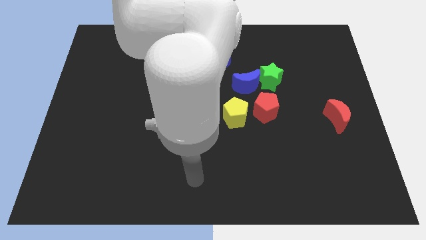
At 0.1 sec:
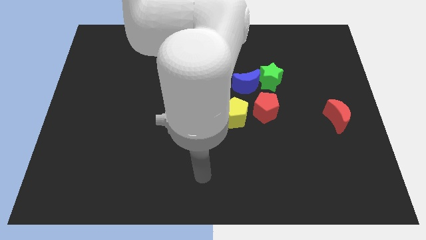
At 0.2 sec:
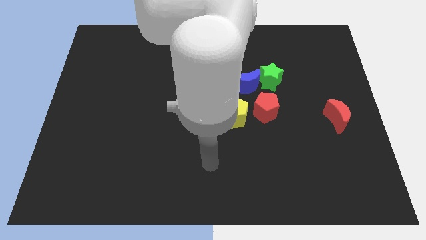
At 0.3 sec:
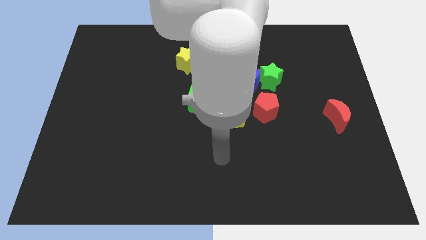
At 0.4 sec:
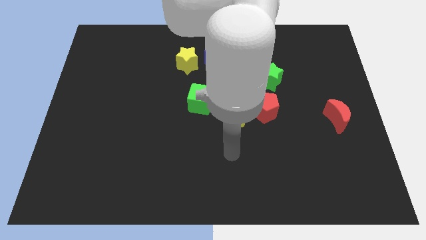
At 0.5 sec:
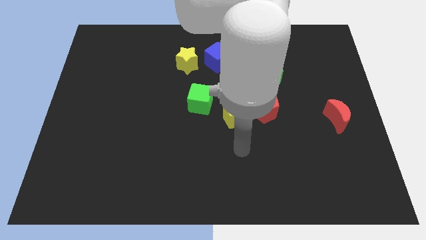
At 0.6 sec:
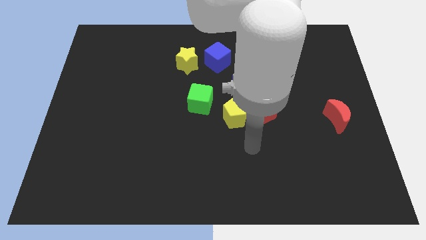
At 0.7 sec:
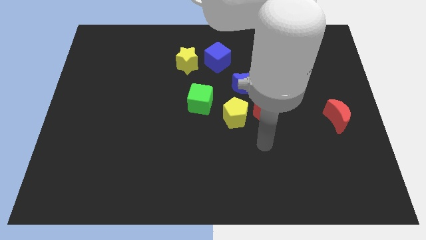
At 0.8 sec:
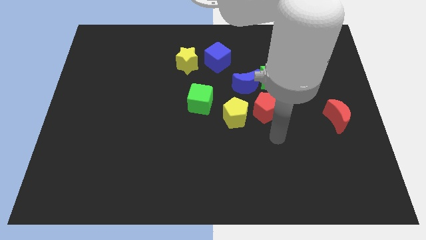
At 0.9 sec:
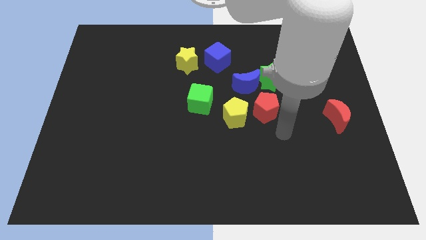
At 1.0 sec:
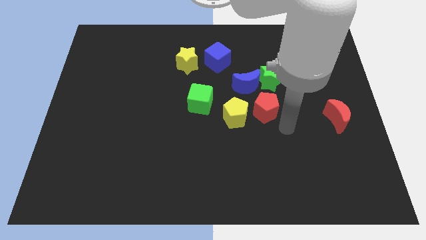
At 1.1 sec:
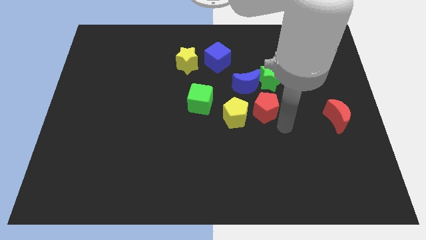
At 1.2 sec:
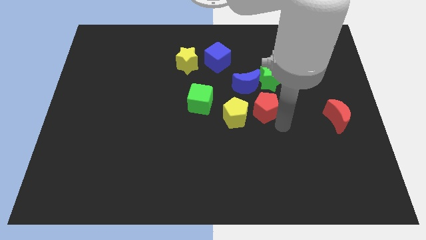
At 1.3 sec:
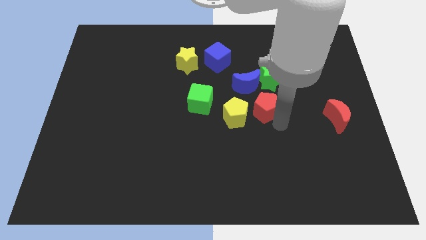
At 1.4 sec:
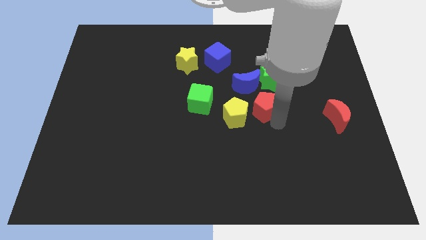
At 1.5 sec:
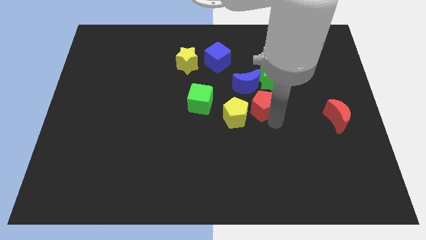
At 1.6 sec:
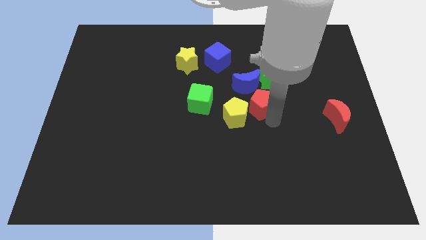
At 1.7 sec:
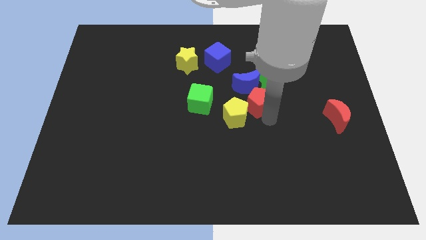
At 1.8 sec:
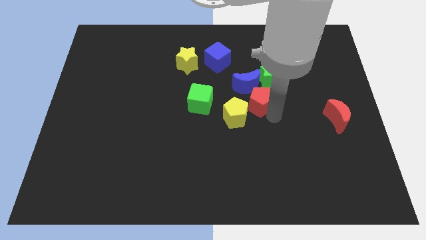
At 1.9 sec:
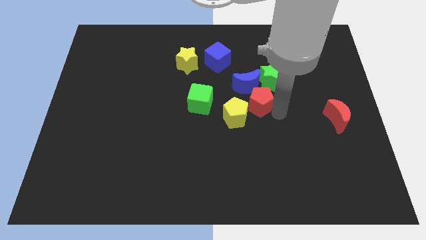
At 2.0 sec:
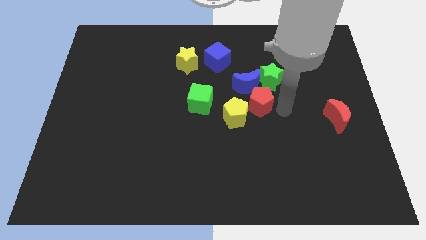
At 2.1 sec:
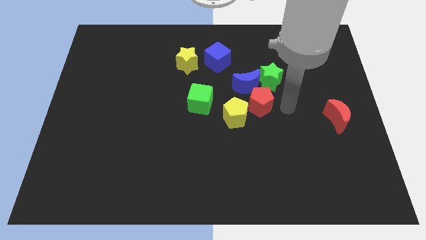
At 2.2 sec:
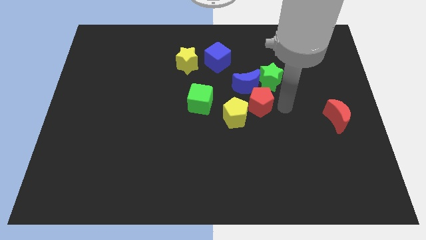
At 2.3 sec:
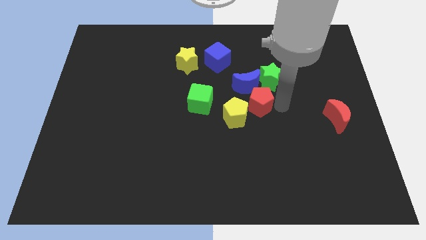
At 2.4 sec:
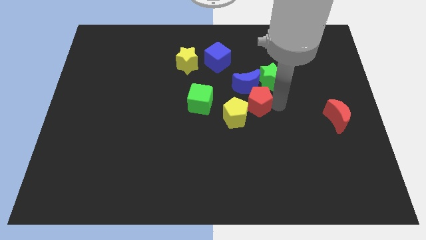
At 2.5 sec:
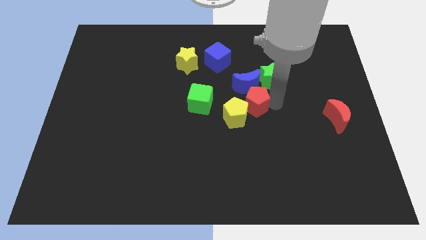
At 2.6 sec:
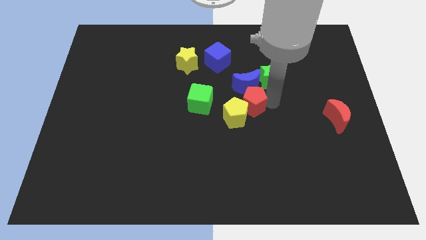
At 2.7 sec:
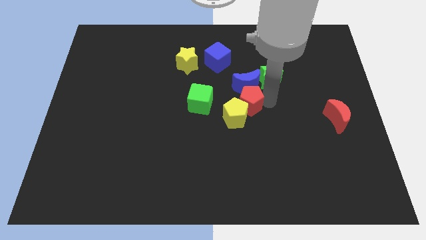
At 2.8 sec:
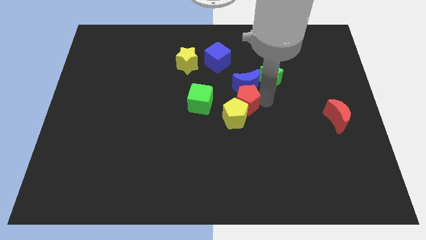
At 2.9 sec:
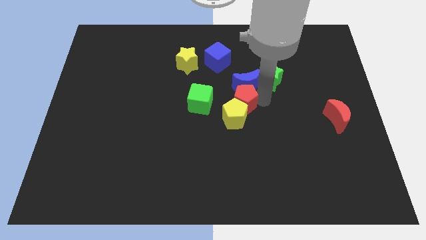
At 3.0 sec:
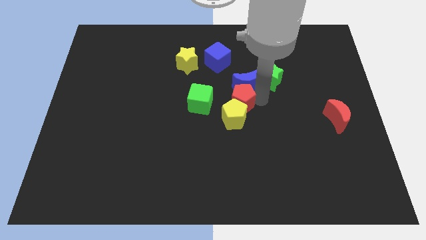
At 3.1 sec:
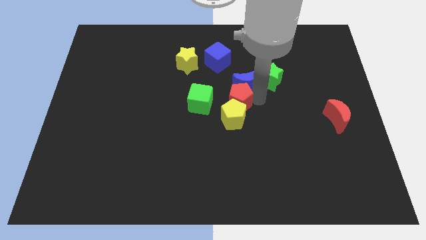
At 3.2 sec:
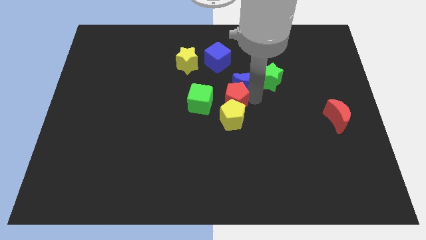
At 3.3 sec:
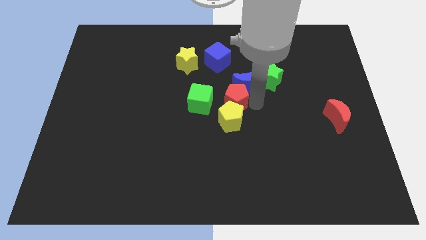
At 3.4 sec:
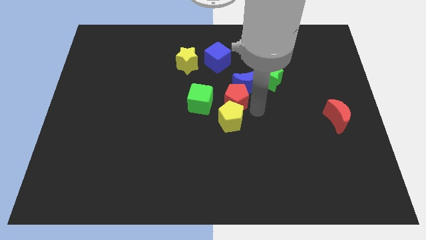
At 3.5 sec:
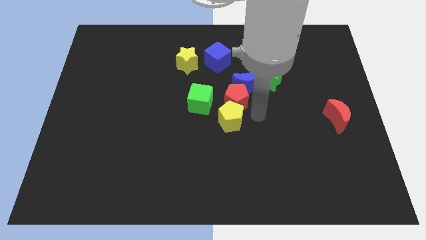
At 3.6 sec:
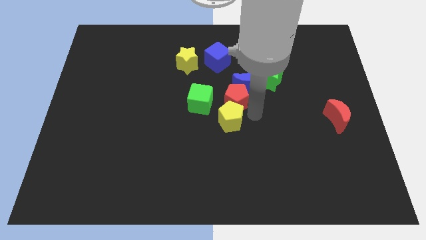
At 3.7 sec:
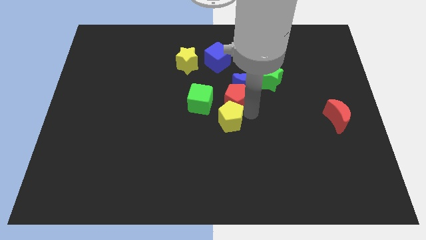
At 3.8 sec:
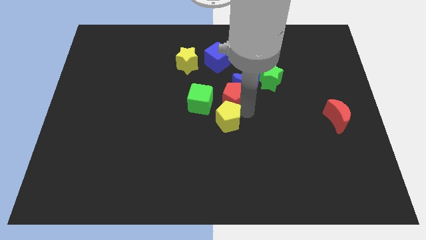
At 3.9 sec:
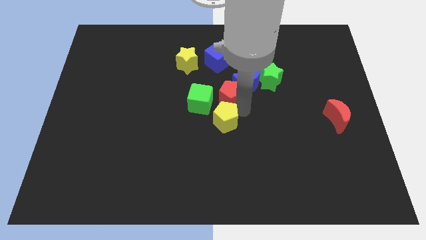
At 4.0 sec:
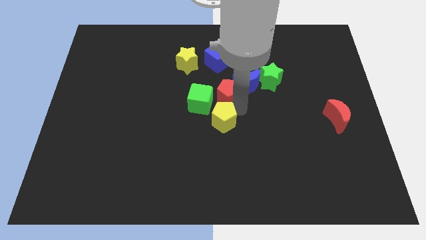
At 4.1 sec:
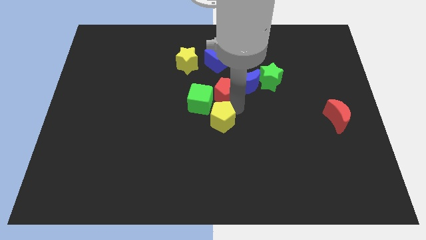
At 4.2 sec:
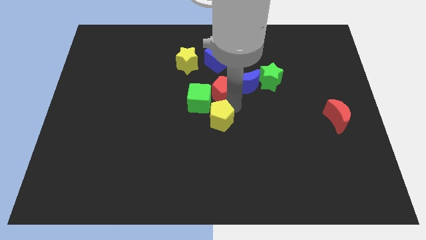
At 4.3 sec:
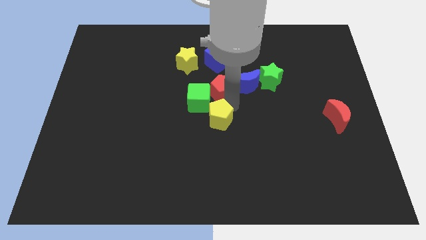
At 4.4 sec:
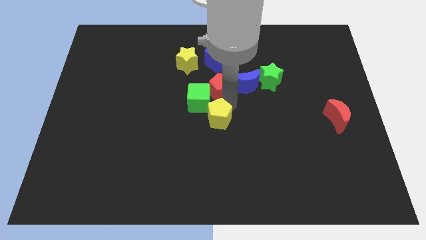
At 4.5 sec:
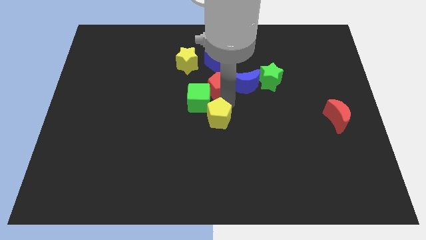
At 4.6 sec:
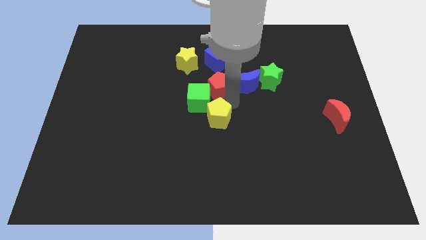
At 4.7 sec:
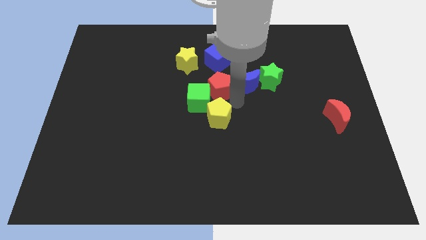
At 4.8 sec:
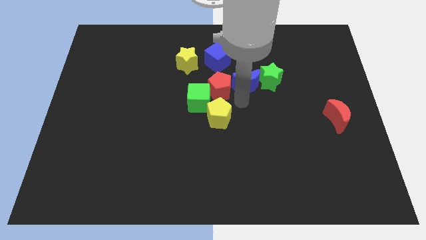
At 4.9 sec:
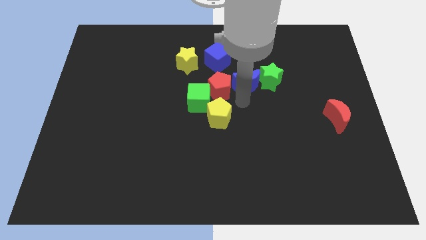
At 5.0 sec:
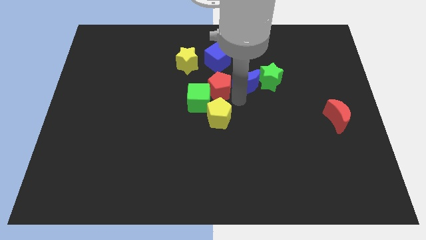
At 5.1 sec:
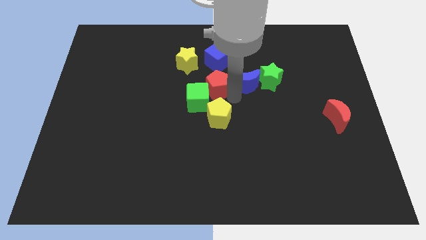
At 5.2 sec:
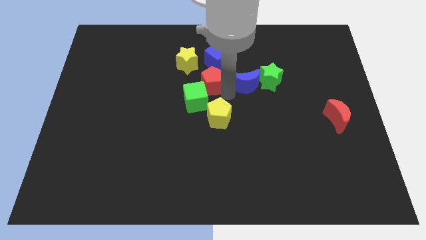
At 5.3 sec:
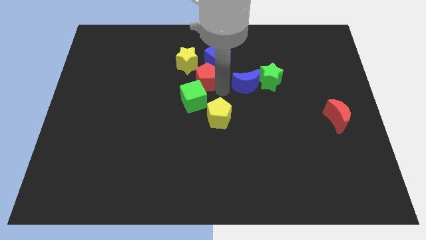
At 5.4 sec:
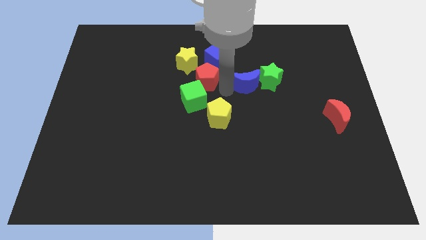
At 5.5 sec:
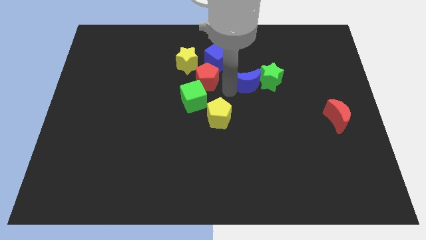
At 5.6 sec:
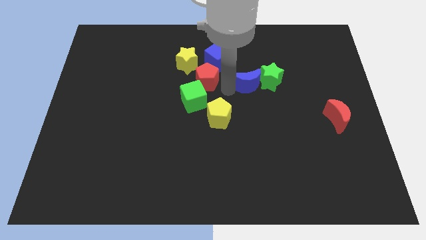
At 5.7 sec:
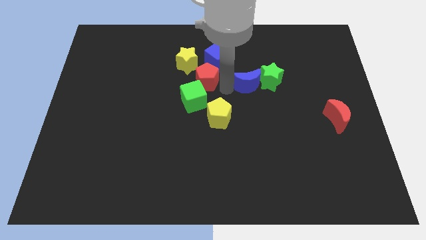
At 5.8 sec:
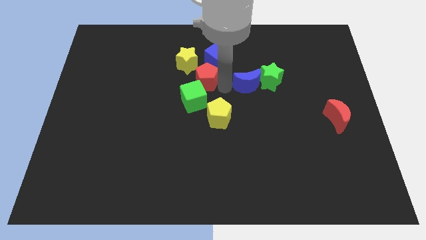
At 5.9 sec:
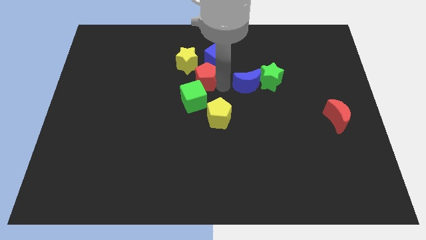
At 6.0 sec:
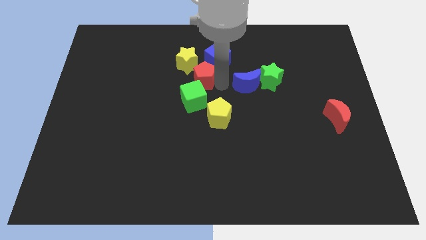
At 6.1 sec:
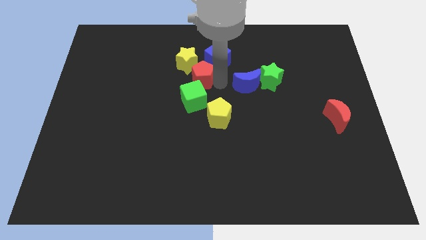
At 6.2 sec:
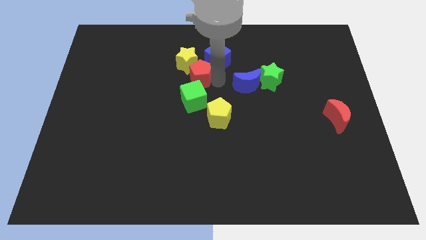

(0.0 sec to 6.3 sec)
move the red pentagon next to the yellow star

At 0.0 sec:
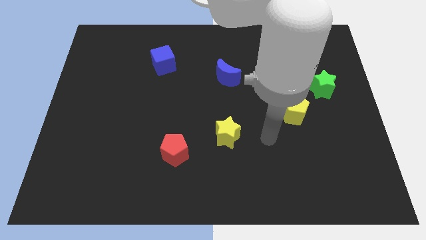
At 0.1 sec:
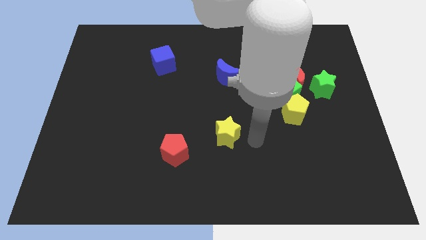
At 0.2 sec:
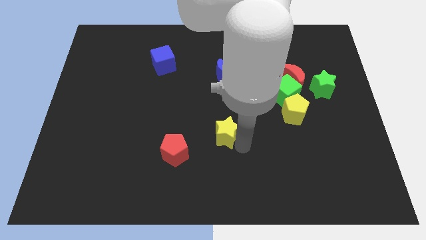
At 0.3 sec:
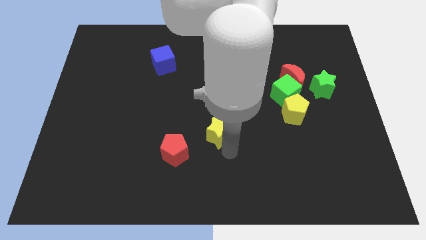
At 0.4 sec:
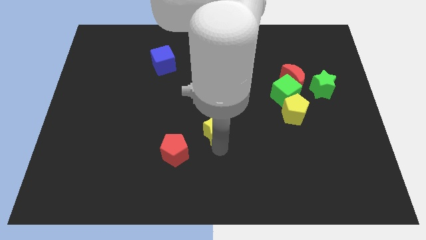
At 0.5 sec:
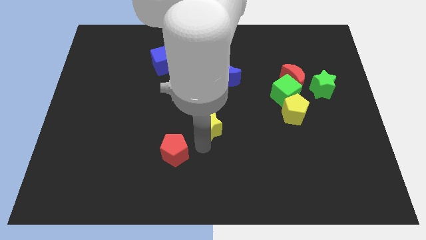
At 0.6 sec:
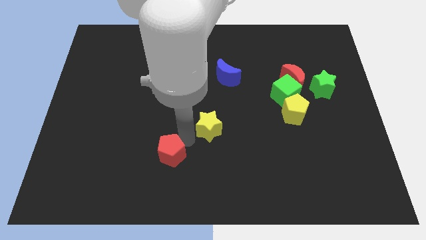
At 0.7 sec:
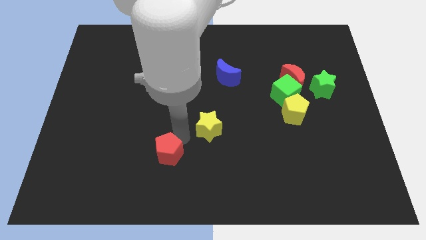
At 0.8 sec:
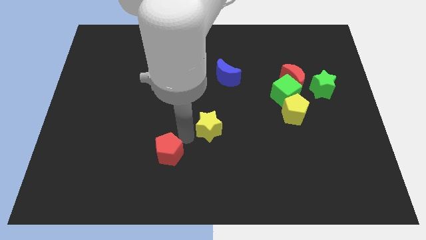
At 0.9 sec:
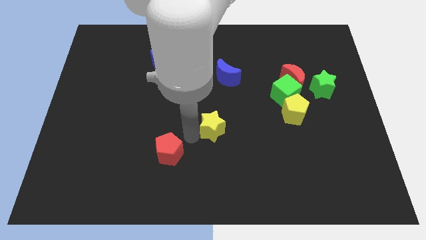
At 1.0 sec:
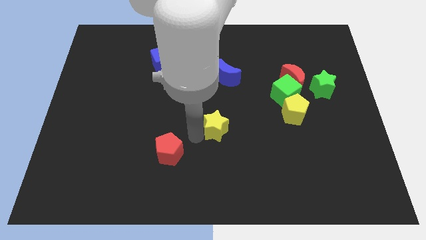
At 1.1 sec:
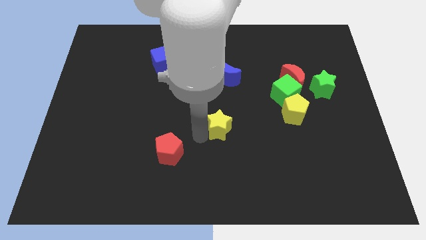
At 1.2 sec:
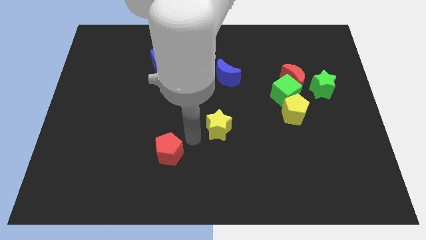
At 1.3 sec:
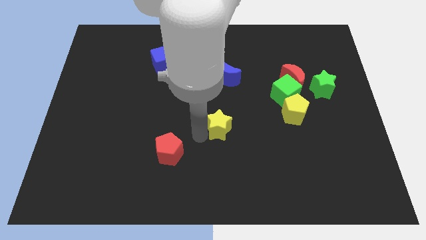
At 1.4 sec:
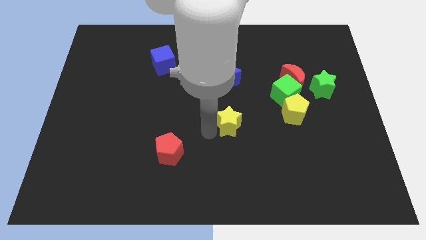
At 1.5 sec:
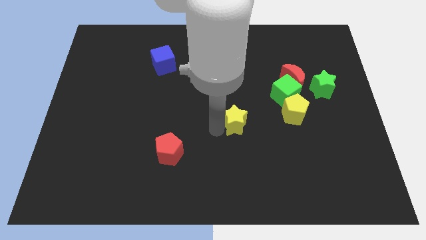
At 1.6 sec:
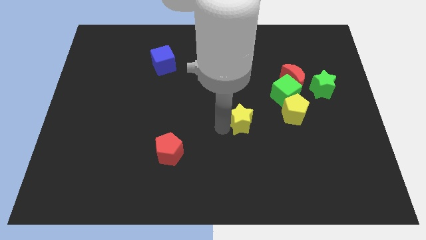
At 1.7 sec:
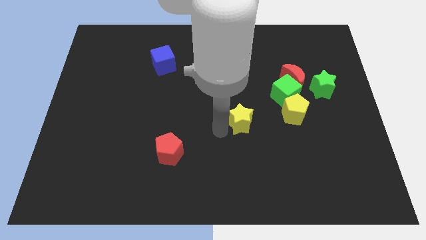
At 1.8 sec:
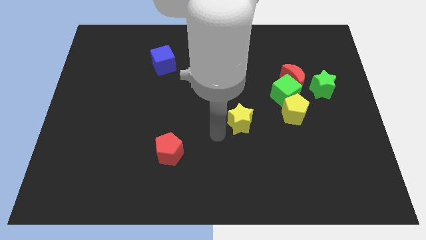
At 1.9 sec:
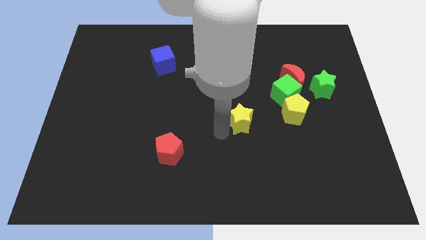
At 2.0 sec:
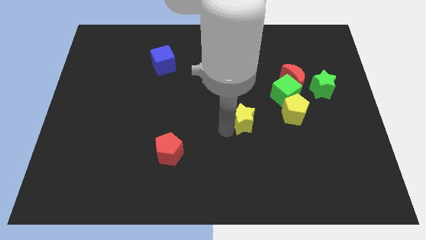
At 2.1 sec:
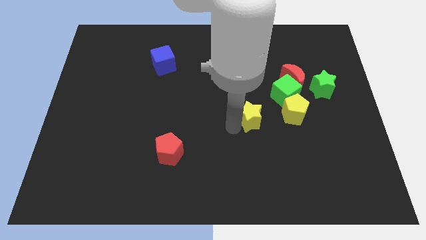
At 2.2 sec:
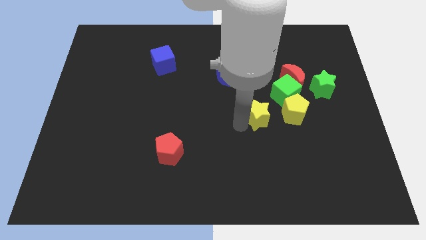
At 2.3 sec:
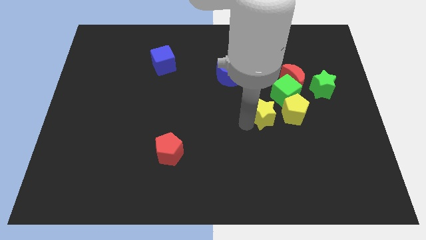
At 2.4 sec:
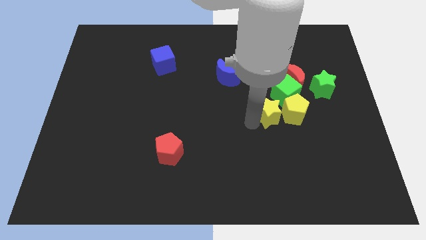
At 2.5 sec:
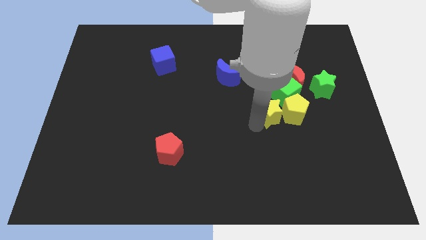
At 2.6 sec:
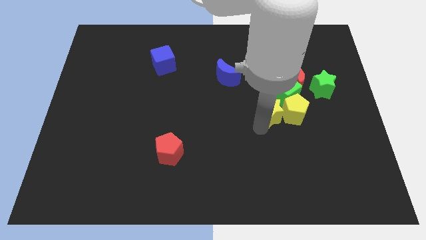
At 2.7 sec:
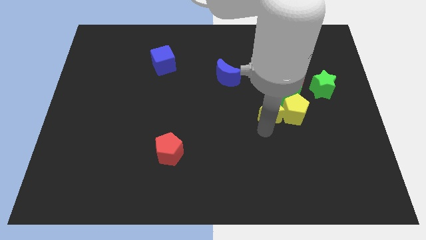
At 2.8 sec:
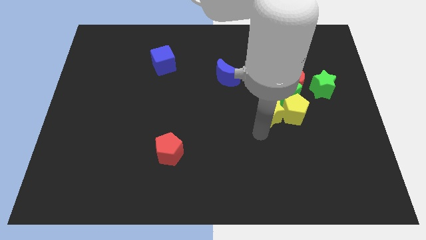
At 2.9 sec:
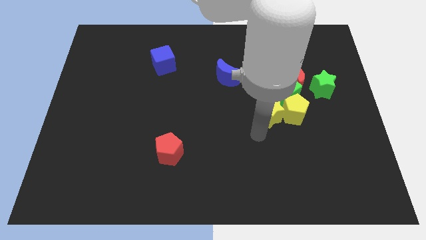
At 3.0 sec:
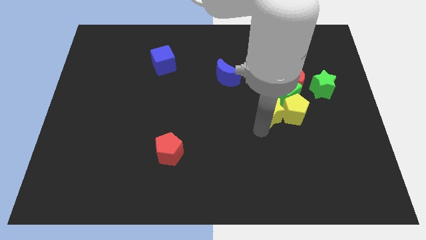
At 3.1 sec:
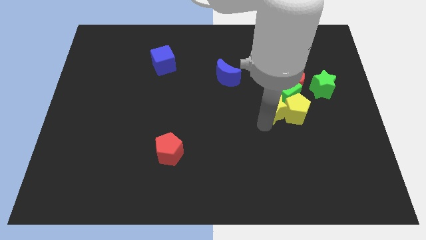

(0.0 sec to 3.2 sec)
put the yellow star towards the green cube
